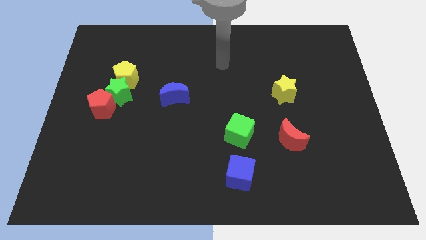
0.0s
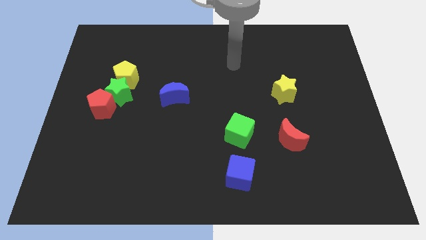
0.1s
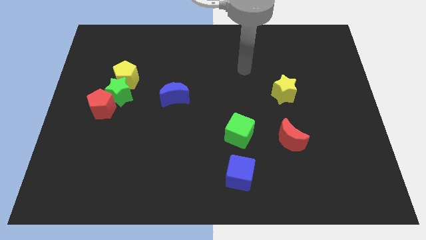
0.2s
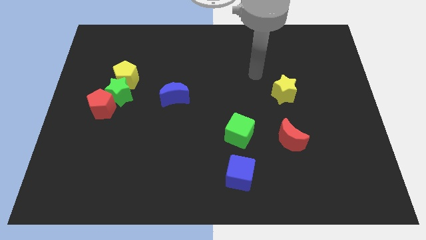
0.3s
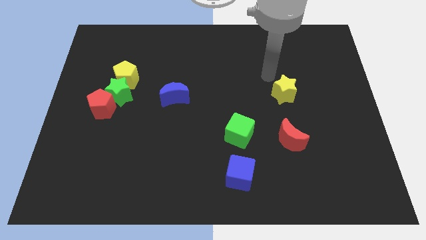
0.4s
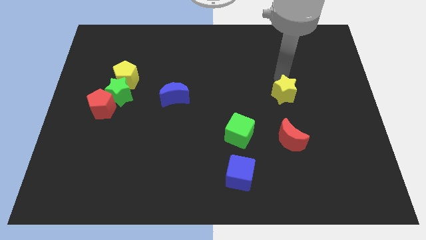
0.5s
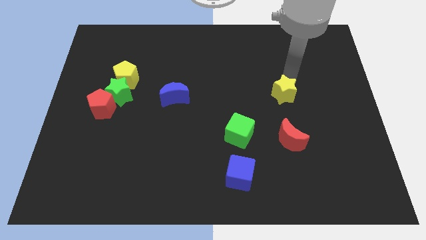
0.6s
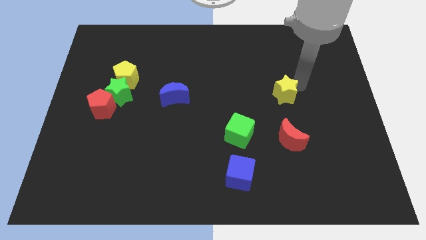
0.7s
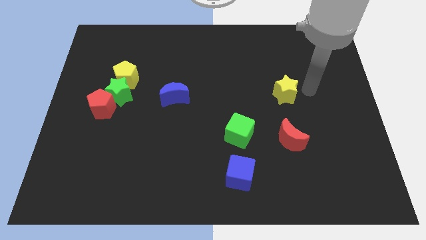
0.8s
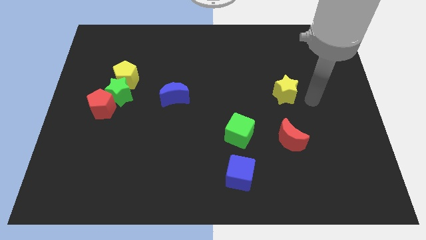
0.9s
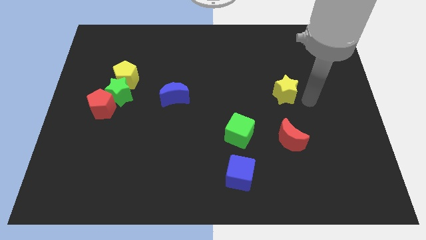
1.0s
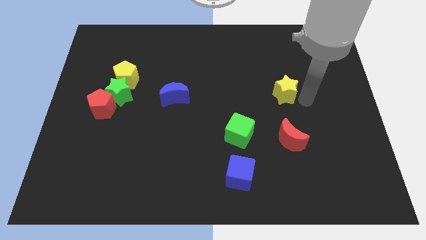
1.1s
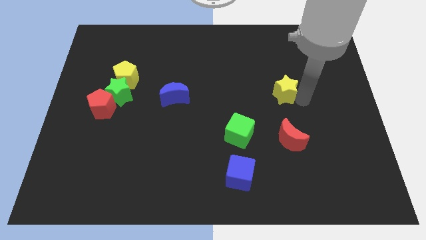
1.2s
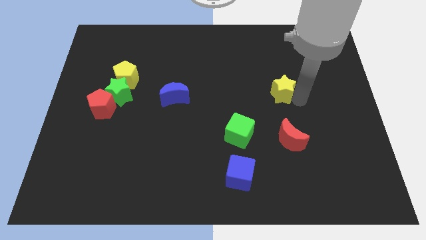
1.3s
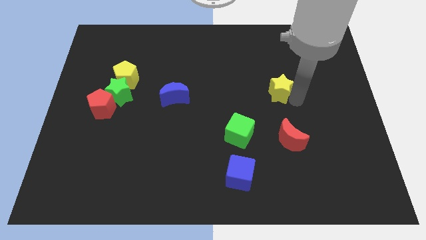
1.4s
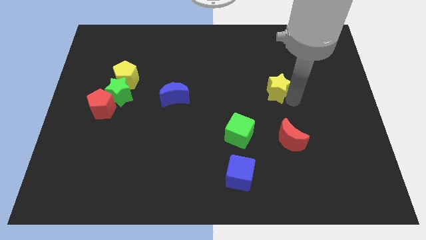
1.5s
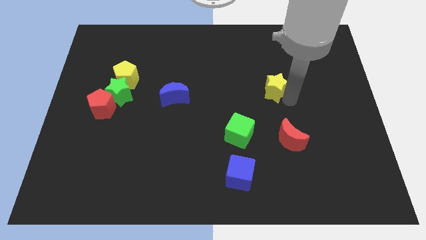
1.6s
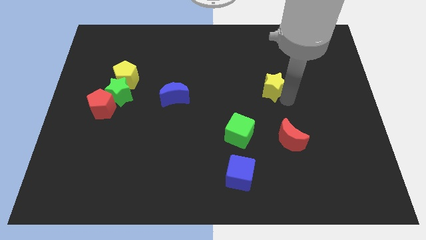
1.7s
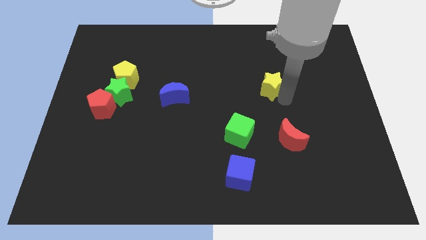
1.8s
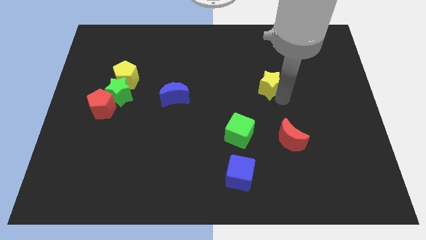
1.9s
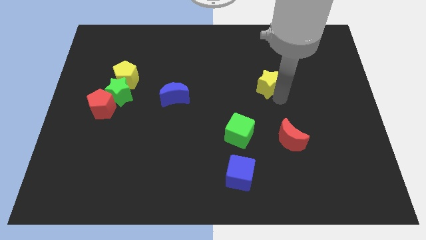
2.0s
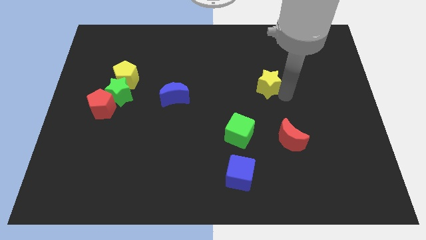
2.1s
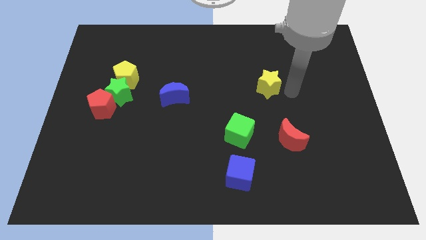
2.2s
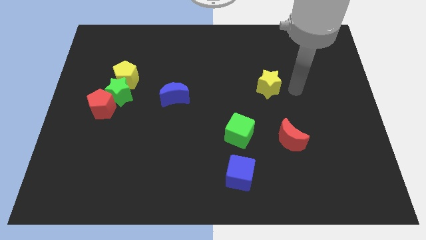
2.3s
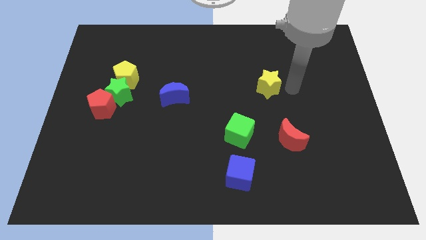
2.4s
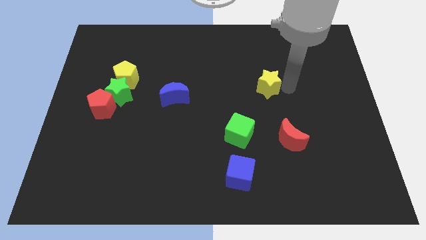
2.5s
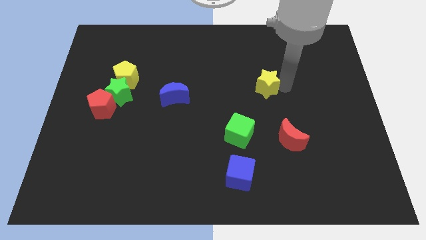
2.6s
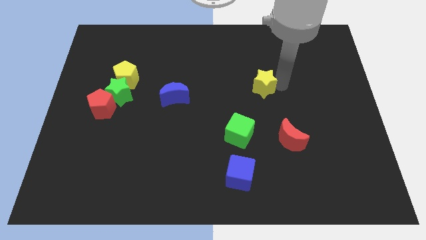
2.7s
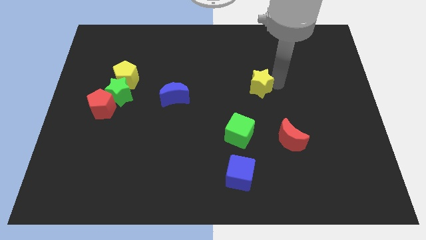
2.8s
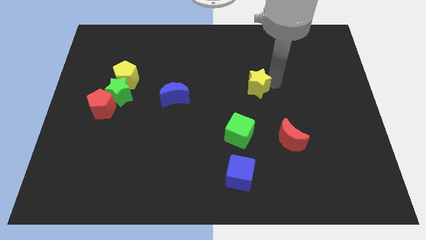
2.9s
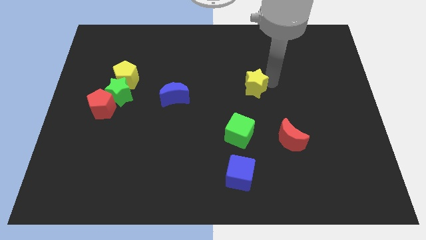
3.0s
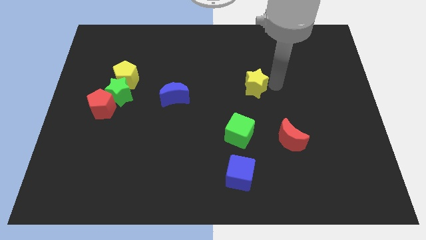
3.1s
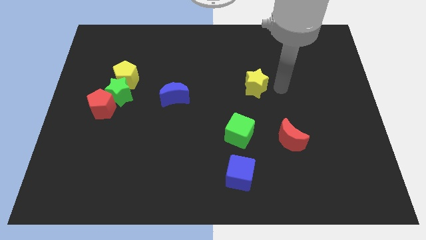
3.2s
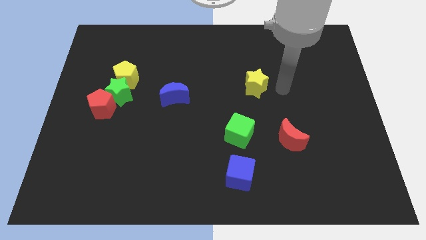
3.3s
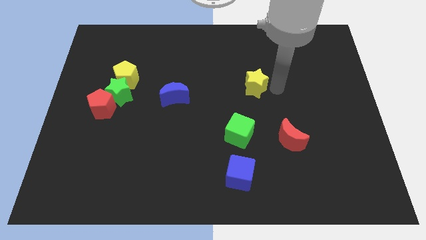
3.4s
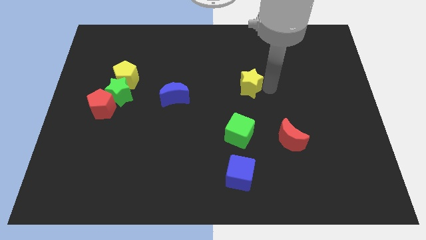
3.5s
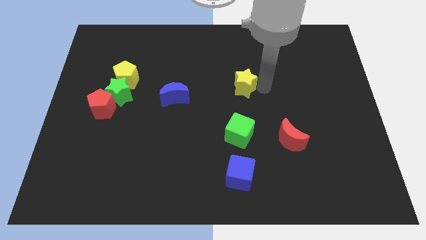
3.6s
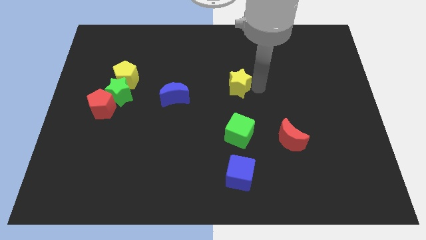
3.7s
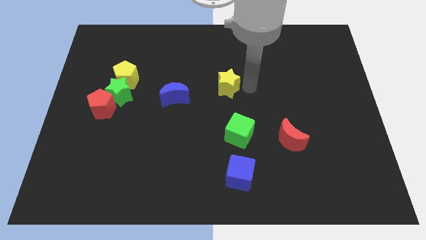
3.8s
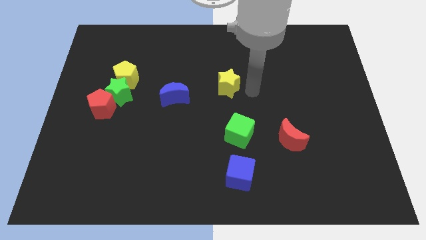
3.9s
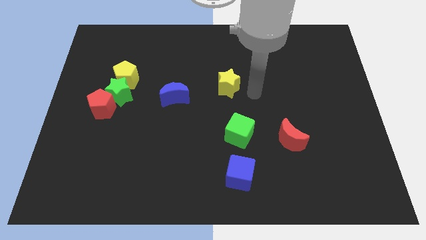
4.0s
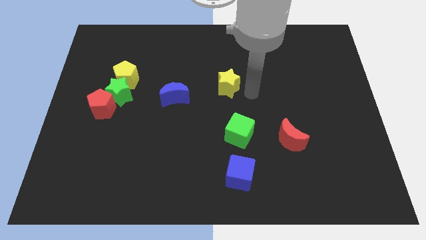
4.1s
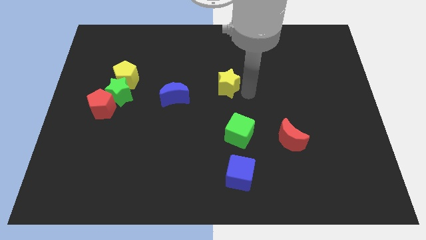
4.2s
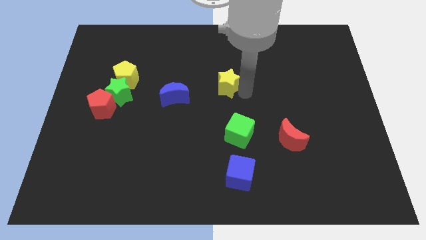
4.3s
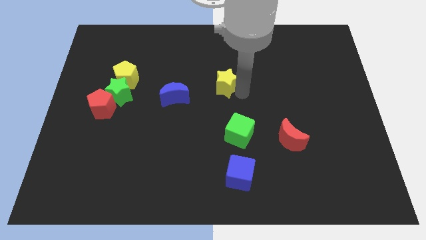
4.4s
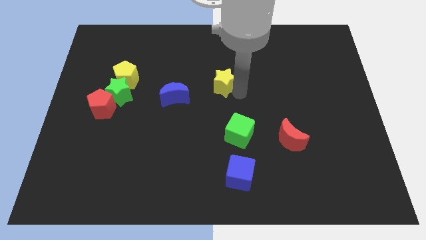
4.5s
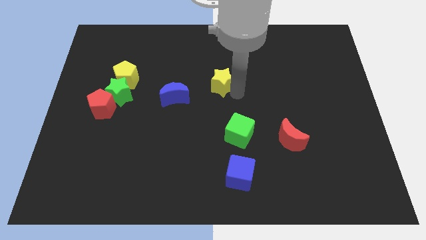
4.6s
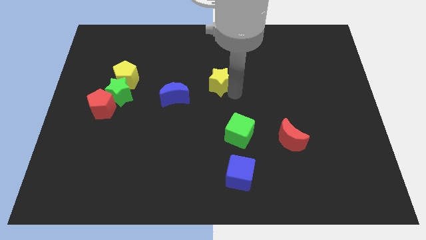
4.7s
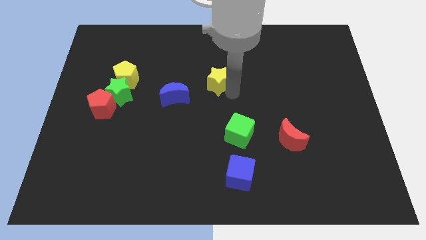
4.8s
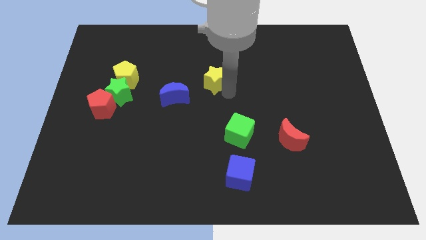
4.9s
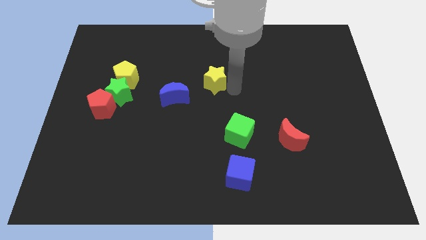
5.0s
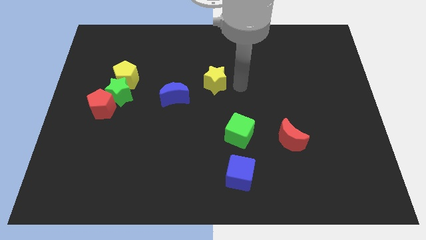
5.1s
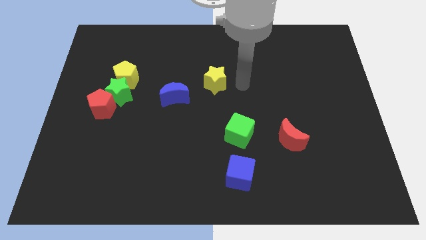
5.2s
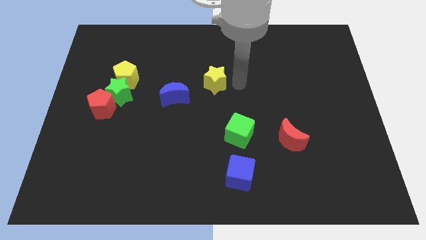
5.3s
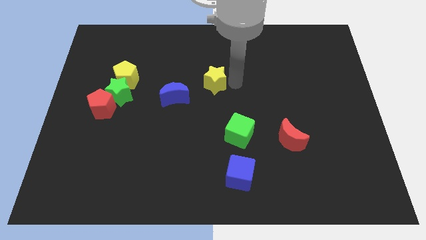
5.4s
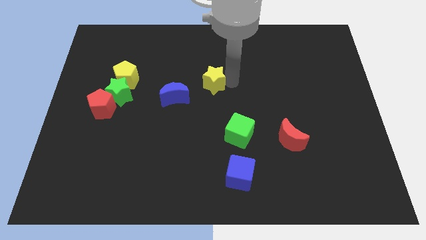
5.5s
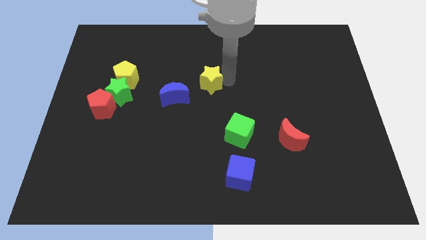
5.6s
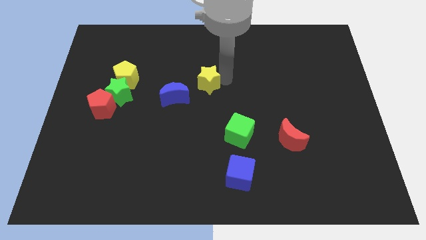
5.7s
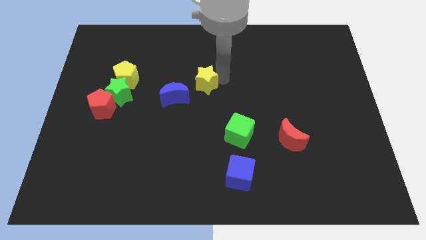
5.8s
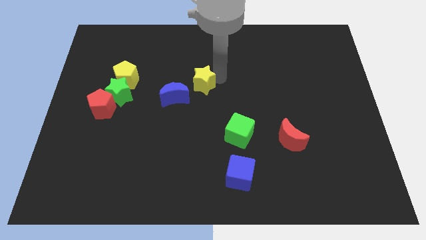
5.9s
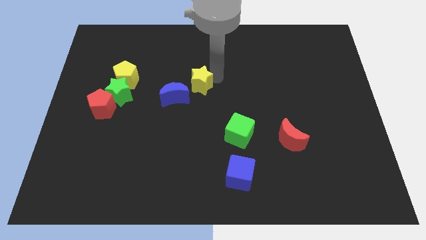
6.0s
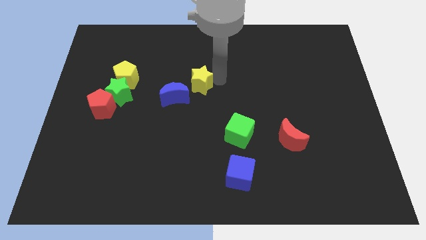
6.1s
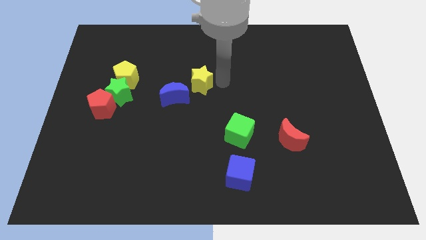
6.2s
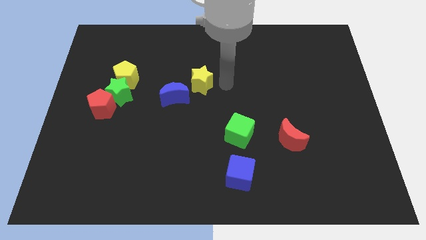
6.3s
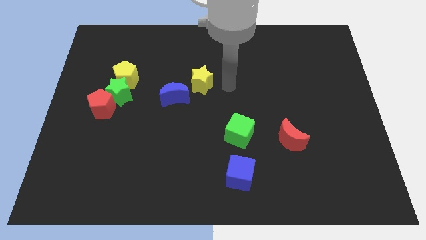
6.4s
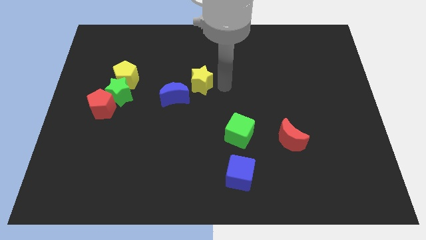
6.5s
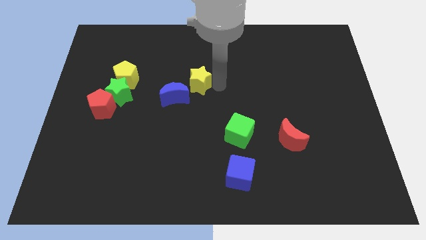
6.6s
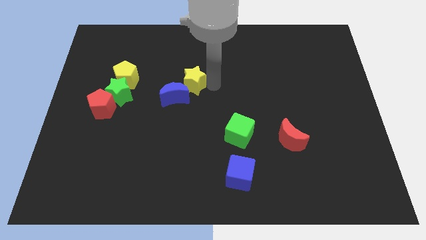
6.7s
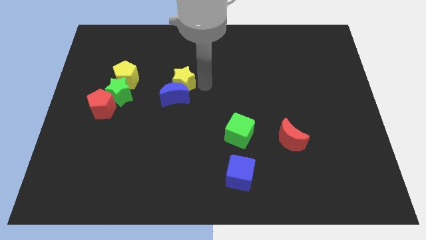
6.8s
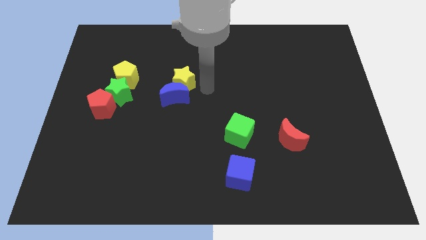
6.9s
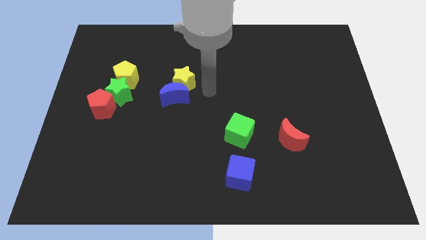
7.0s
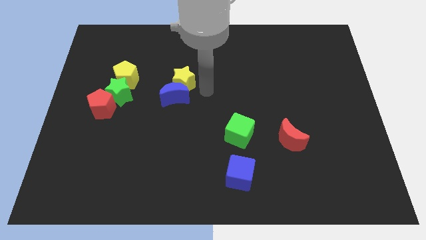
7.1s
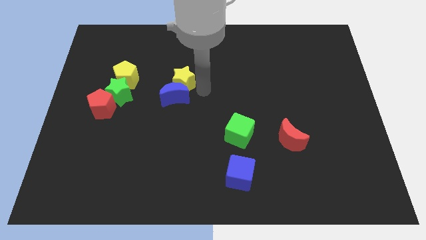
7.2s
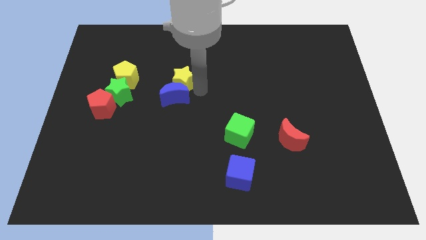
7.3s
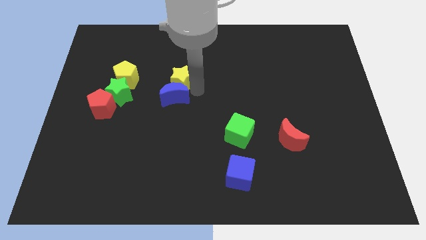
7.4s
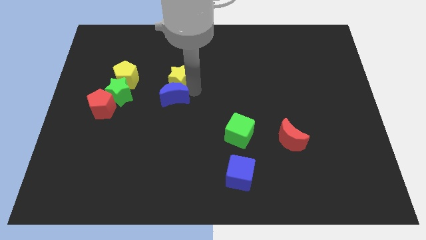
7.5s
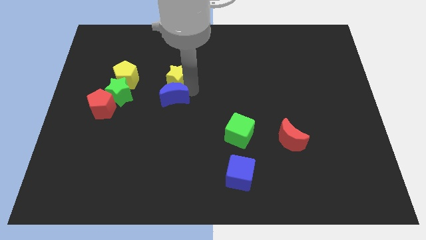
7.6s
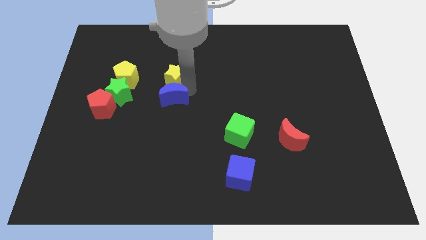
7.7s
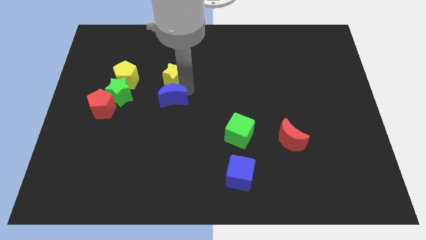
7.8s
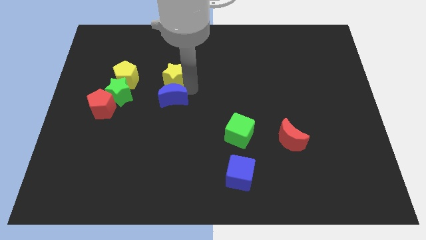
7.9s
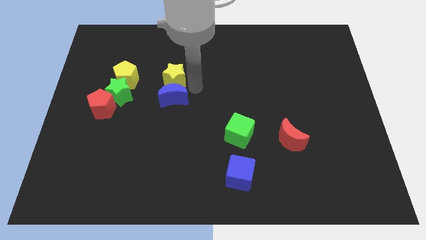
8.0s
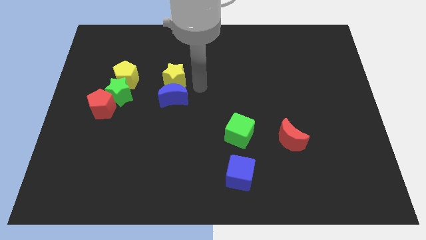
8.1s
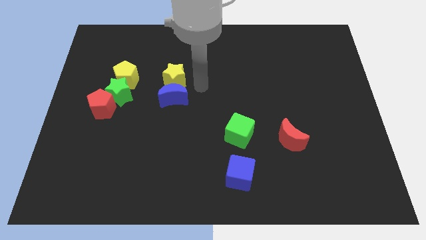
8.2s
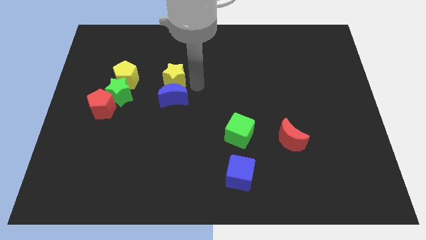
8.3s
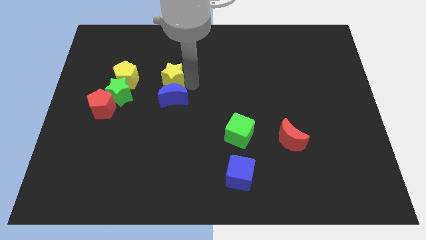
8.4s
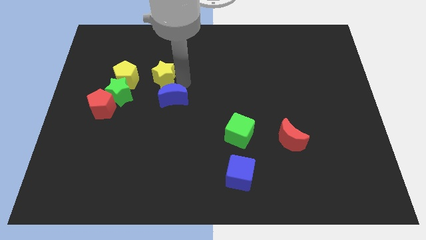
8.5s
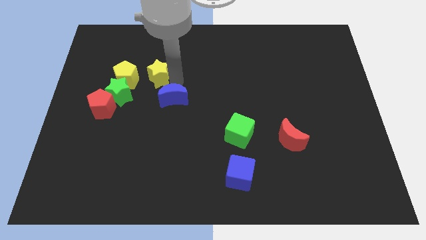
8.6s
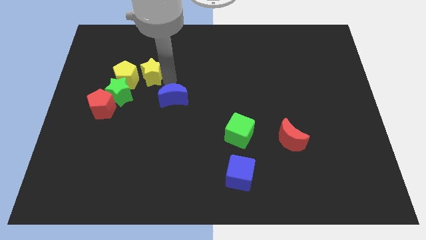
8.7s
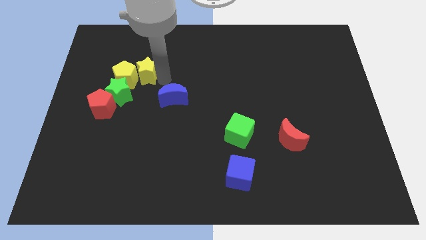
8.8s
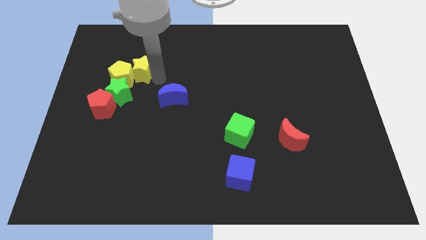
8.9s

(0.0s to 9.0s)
slide the yellow star above the green star
